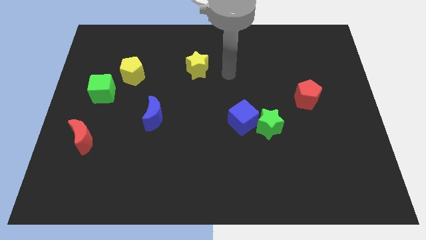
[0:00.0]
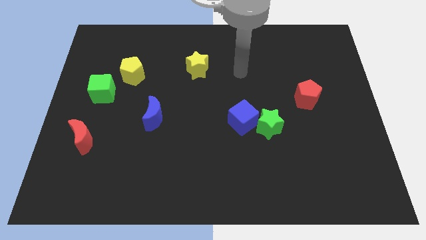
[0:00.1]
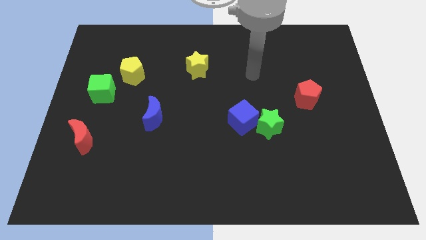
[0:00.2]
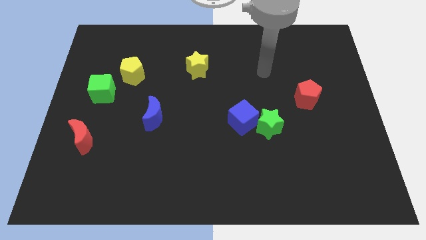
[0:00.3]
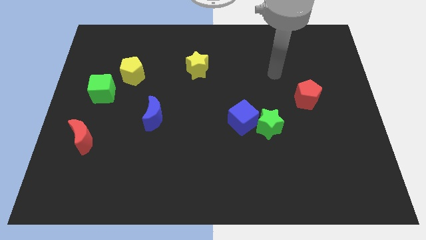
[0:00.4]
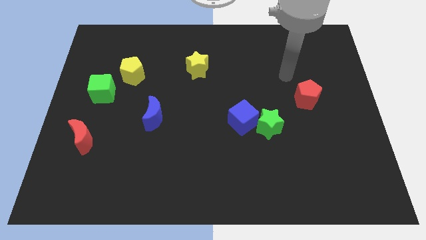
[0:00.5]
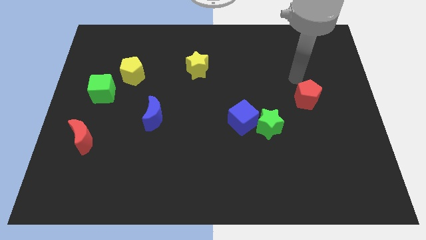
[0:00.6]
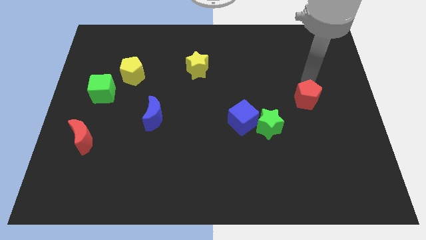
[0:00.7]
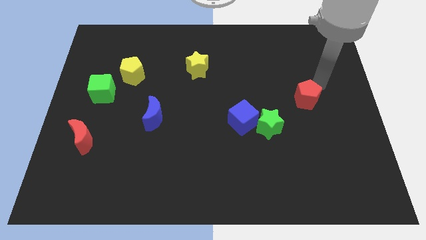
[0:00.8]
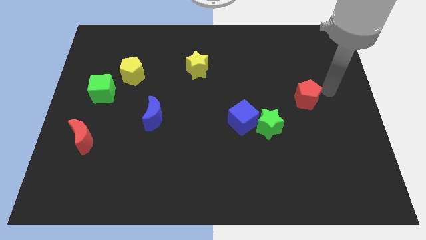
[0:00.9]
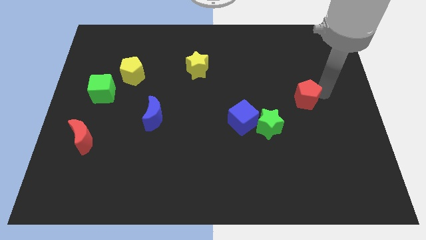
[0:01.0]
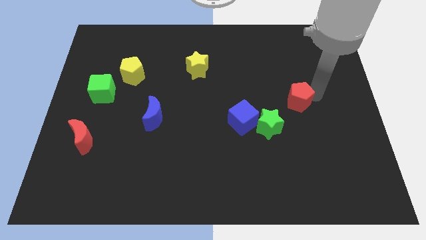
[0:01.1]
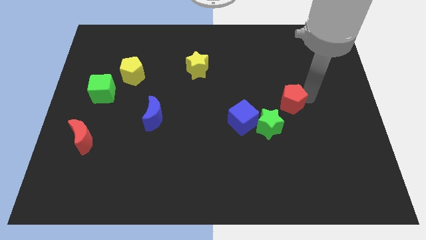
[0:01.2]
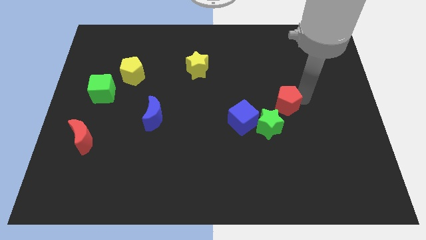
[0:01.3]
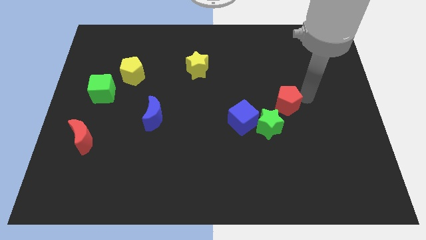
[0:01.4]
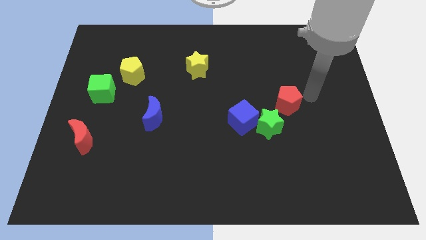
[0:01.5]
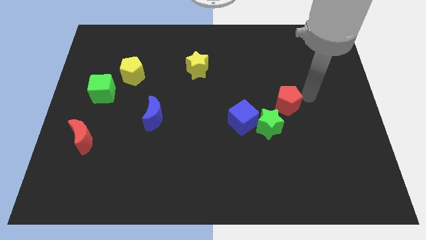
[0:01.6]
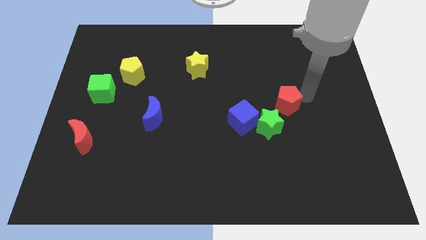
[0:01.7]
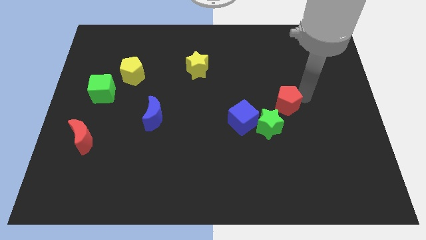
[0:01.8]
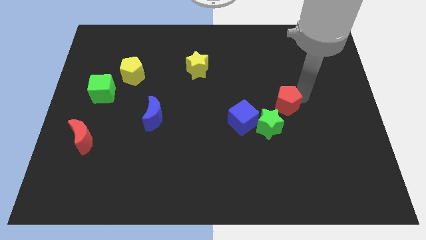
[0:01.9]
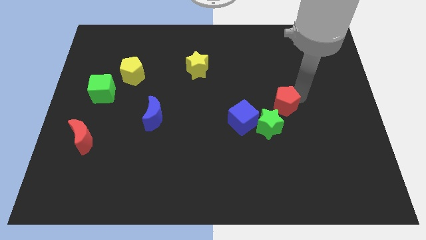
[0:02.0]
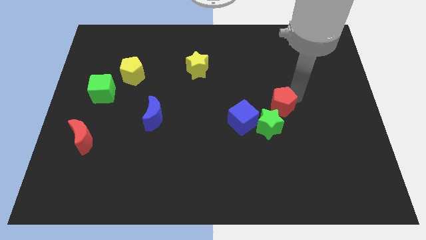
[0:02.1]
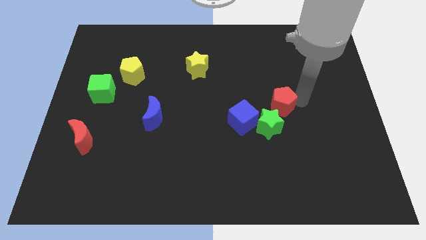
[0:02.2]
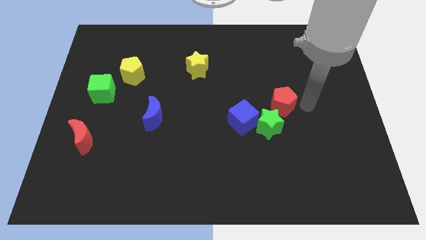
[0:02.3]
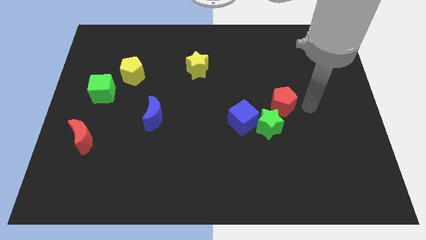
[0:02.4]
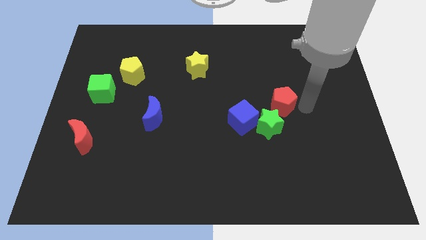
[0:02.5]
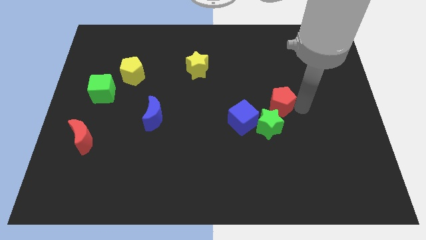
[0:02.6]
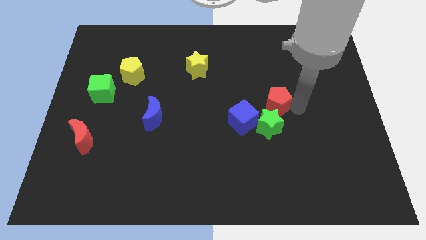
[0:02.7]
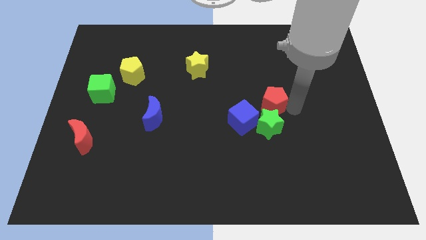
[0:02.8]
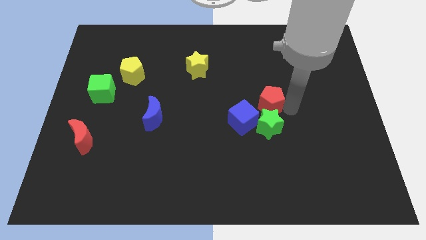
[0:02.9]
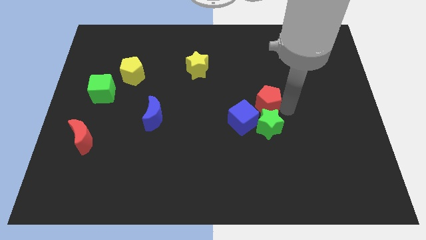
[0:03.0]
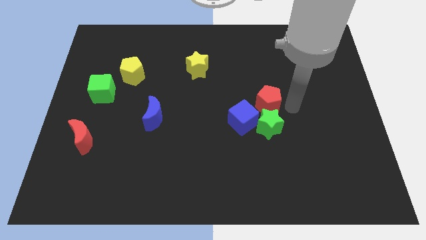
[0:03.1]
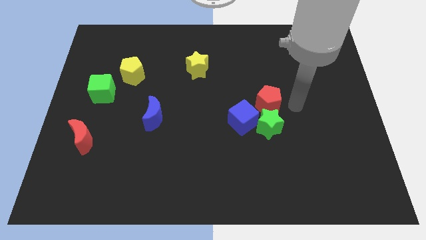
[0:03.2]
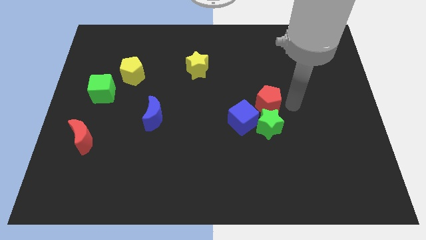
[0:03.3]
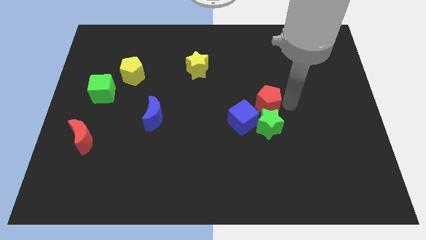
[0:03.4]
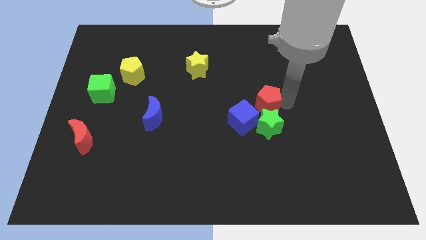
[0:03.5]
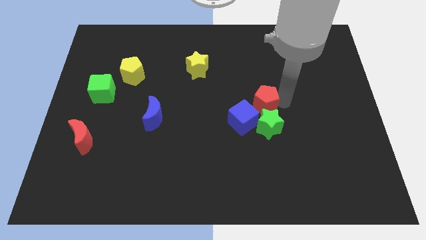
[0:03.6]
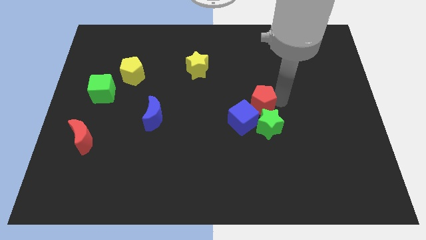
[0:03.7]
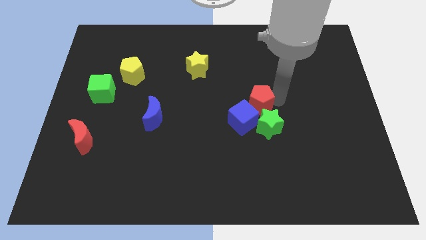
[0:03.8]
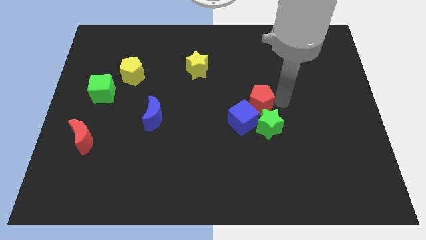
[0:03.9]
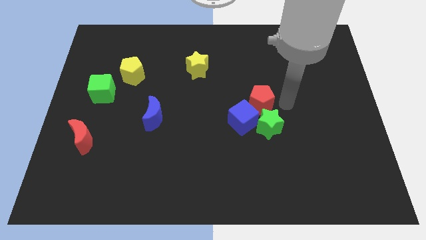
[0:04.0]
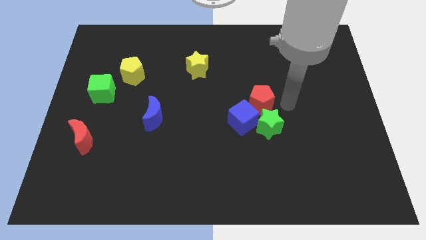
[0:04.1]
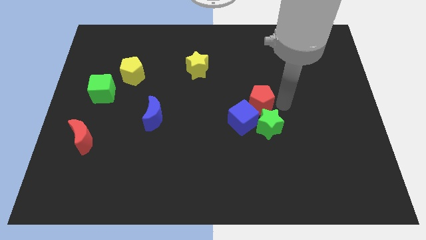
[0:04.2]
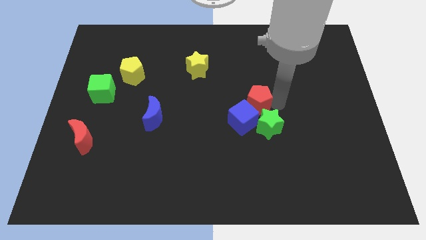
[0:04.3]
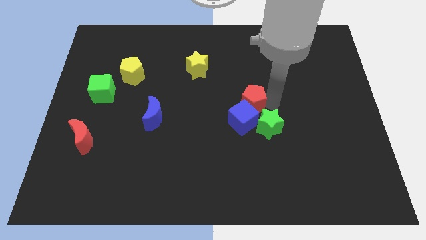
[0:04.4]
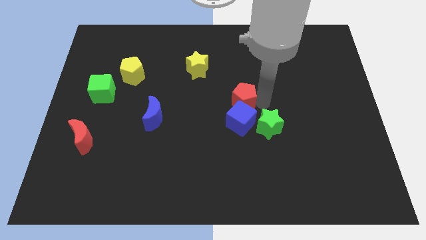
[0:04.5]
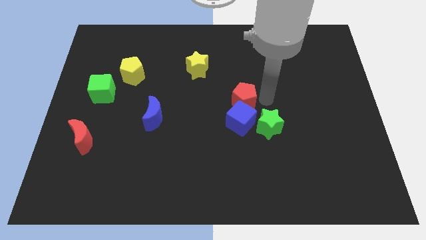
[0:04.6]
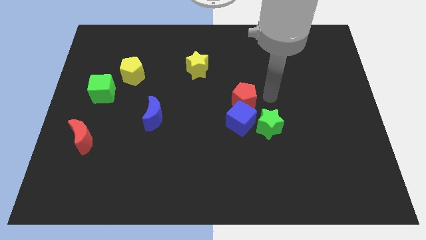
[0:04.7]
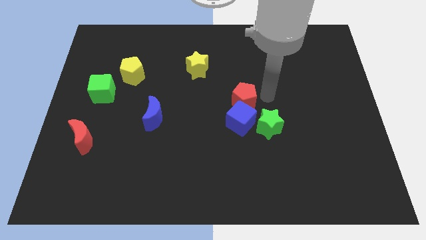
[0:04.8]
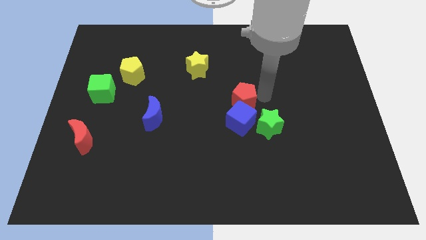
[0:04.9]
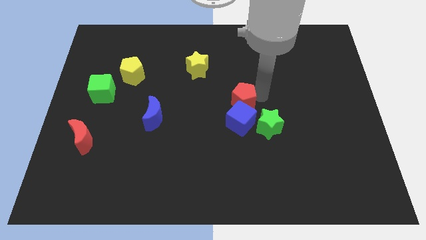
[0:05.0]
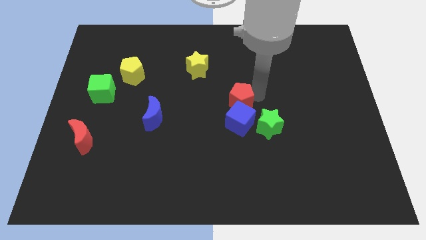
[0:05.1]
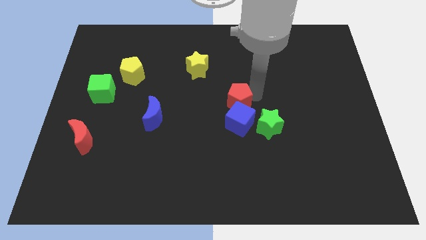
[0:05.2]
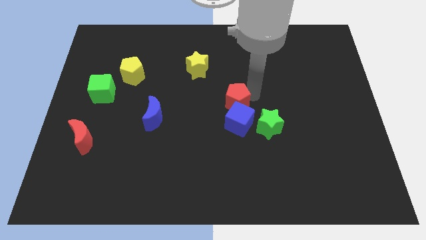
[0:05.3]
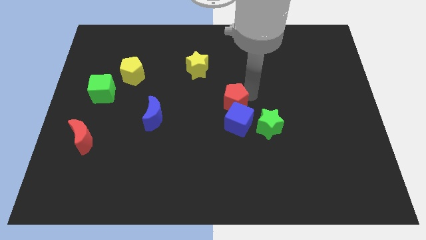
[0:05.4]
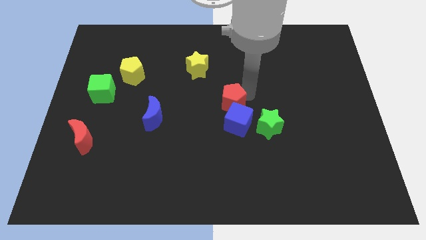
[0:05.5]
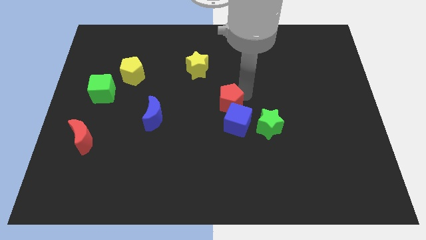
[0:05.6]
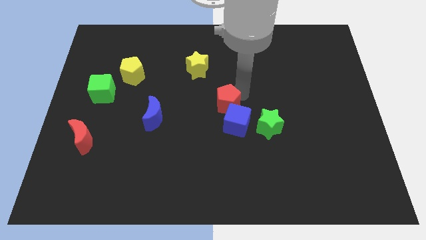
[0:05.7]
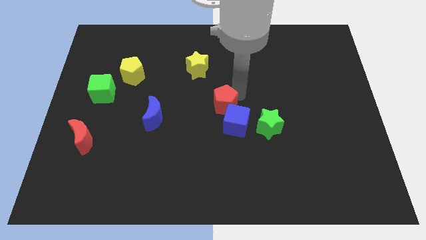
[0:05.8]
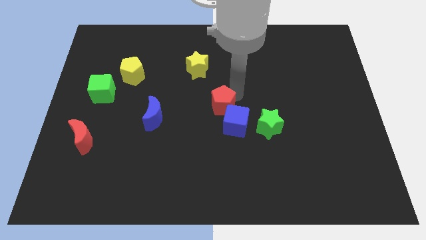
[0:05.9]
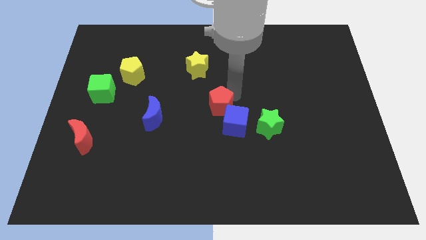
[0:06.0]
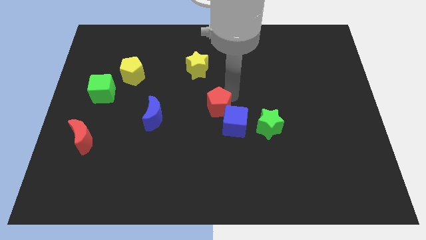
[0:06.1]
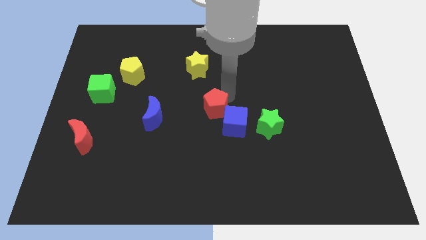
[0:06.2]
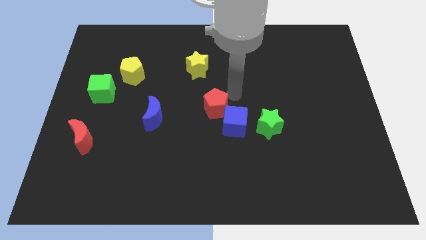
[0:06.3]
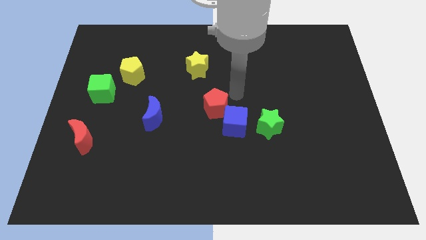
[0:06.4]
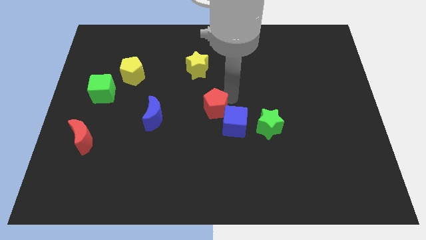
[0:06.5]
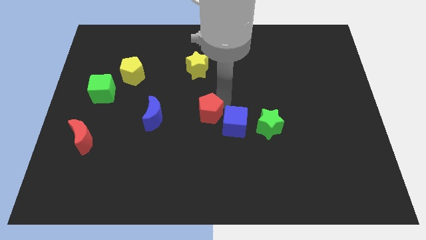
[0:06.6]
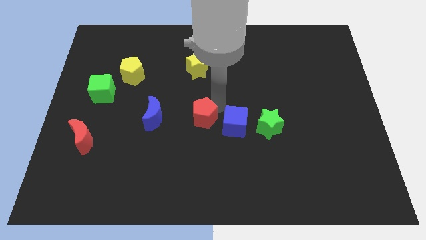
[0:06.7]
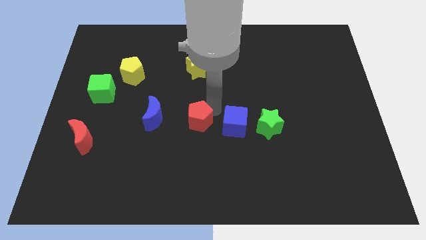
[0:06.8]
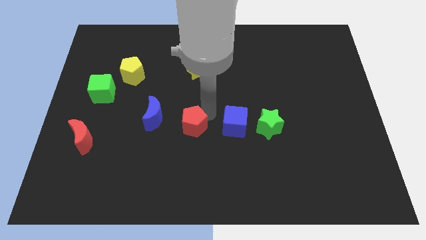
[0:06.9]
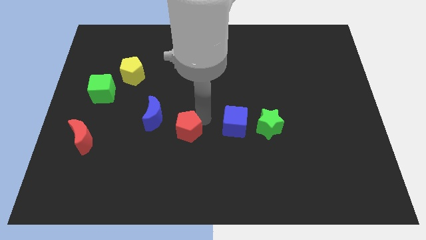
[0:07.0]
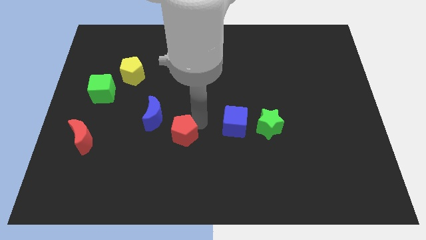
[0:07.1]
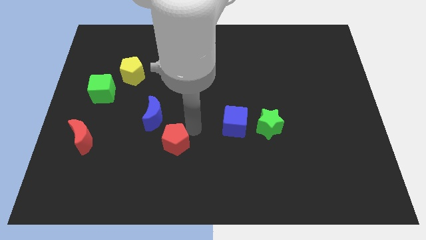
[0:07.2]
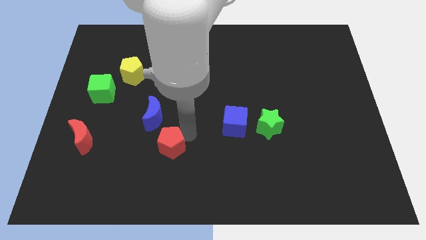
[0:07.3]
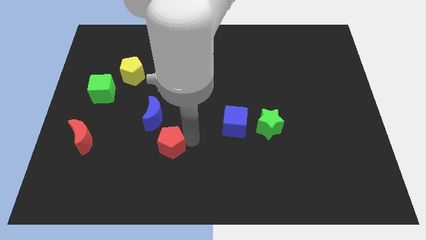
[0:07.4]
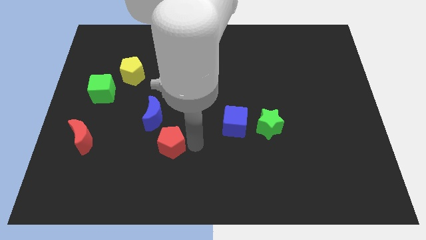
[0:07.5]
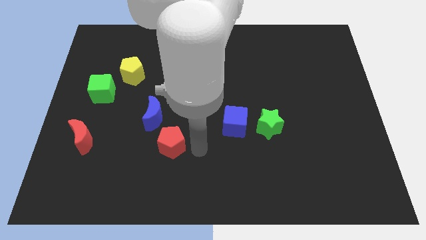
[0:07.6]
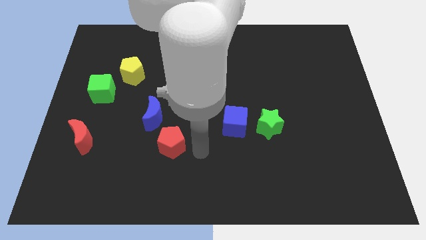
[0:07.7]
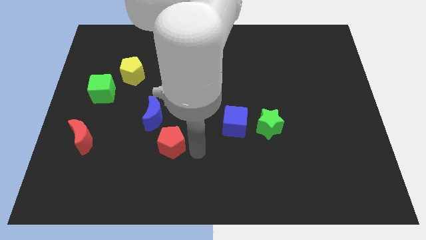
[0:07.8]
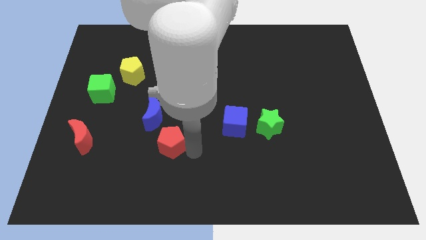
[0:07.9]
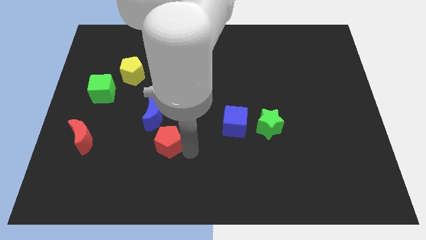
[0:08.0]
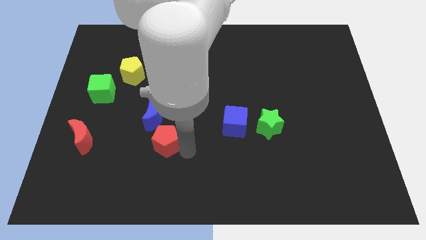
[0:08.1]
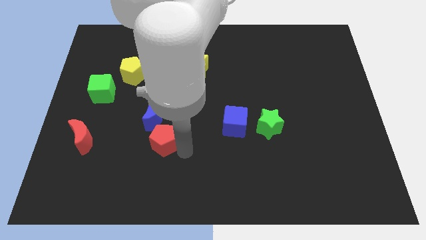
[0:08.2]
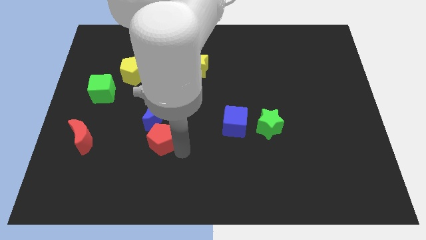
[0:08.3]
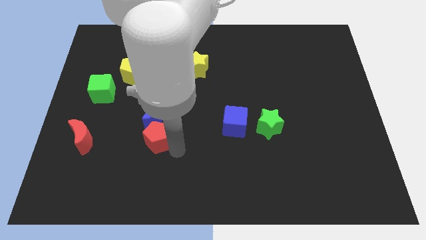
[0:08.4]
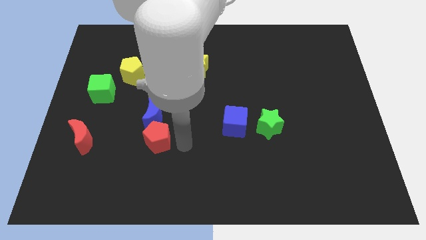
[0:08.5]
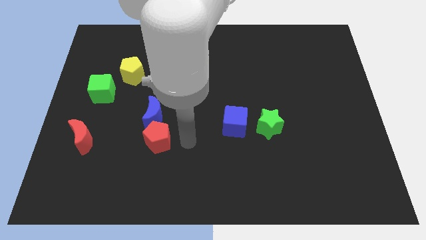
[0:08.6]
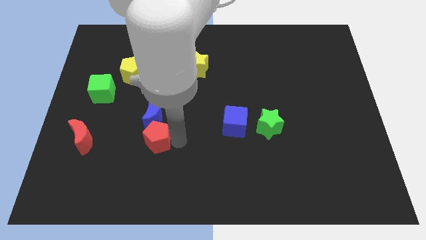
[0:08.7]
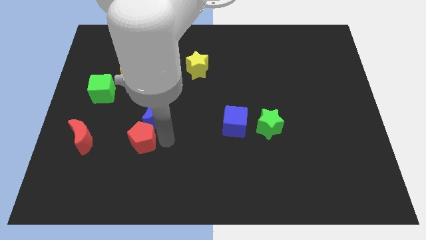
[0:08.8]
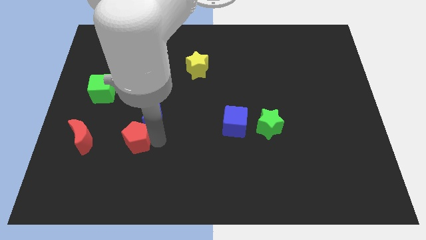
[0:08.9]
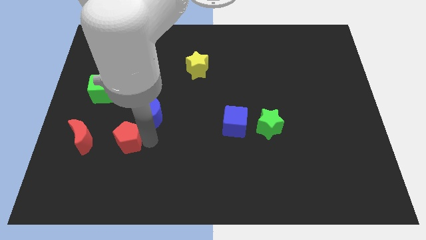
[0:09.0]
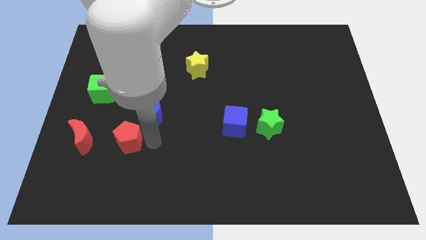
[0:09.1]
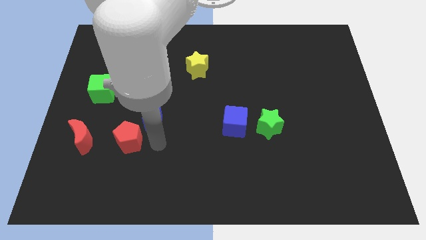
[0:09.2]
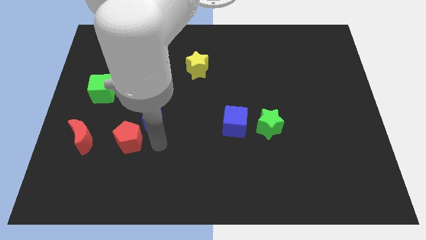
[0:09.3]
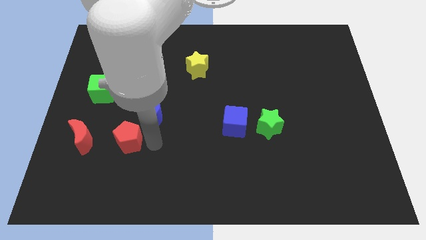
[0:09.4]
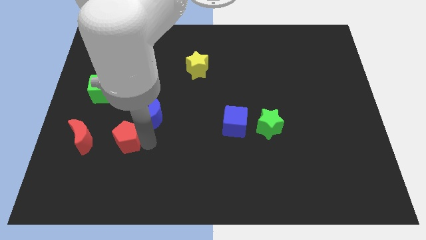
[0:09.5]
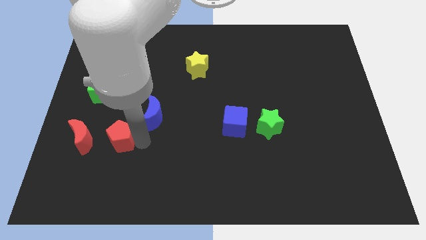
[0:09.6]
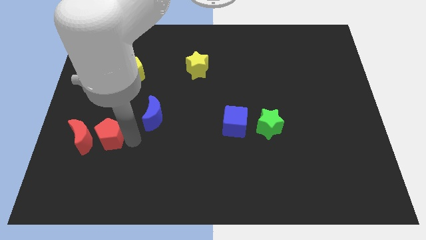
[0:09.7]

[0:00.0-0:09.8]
move the red pentagon close to the red moon
